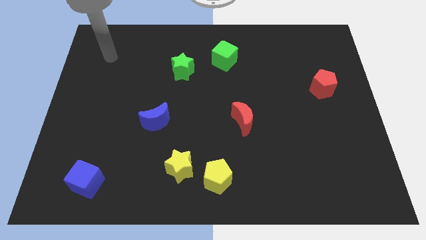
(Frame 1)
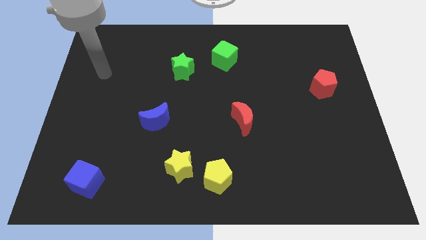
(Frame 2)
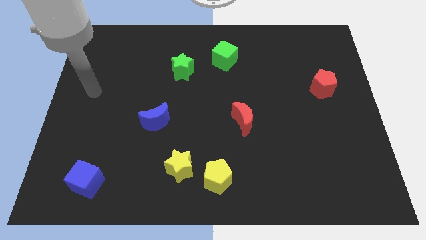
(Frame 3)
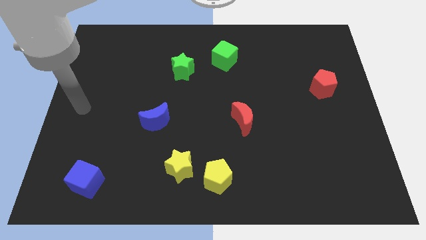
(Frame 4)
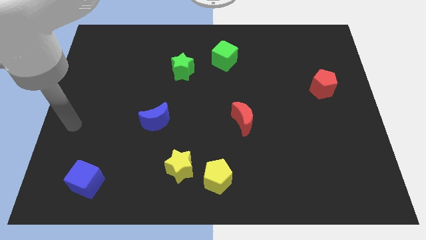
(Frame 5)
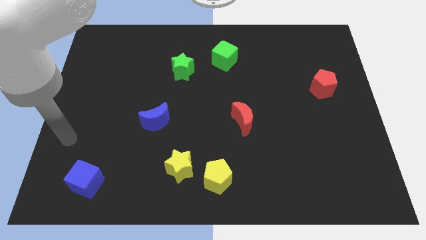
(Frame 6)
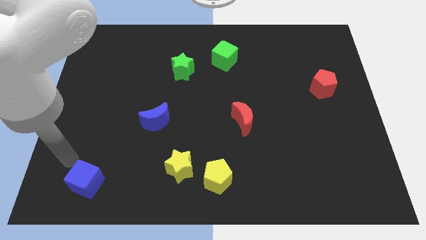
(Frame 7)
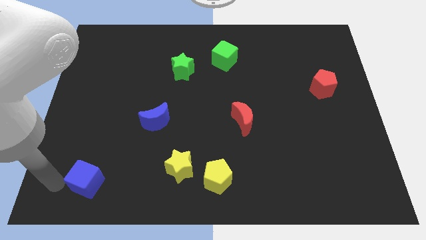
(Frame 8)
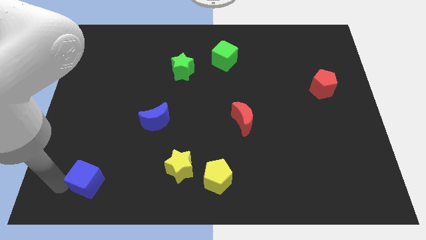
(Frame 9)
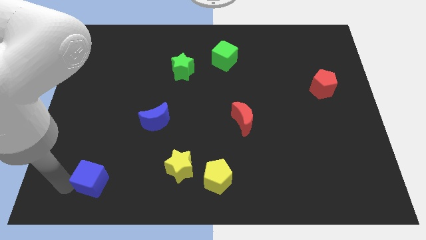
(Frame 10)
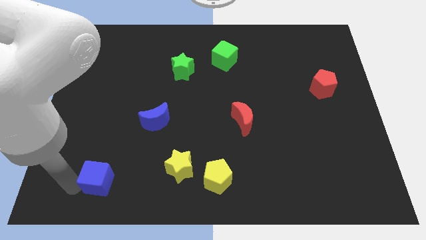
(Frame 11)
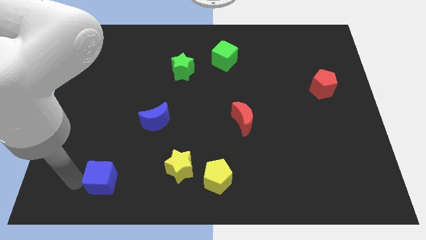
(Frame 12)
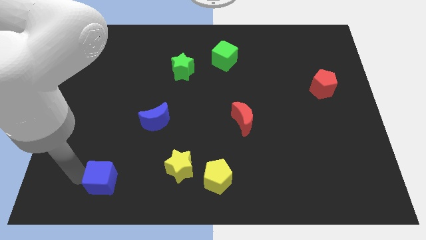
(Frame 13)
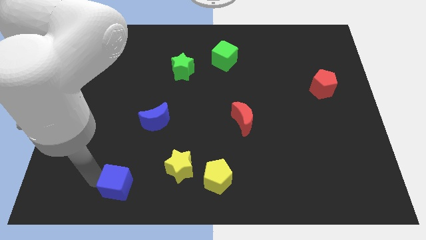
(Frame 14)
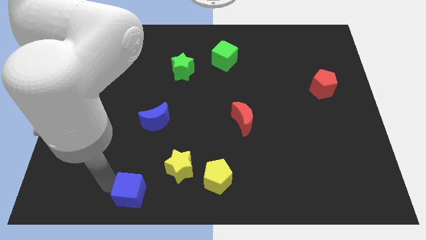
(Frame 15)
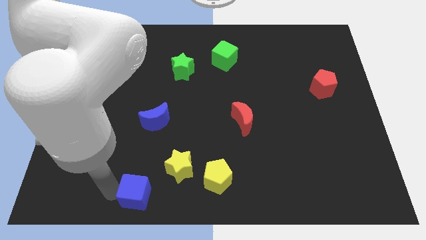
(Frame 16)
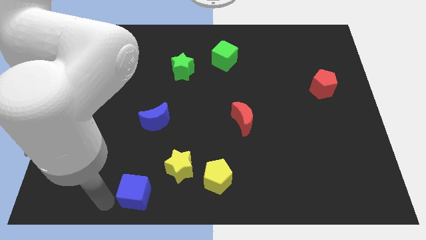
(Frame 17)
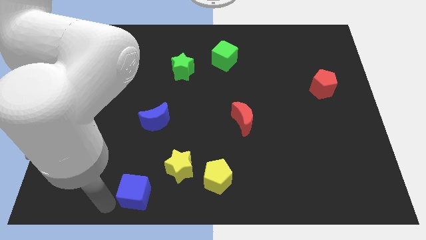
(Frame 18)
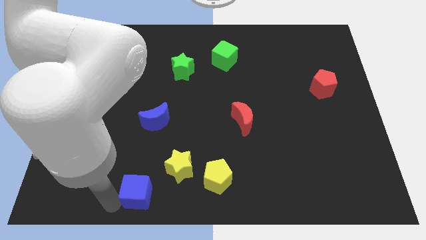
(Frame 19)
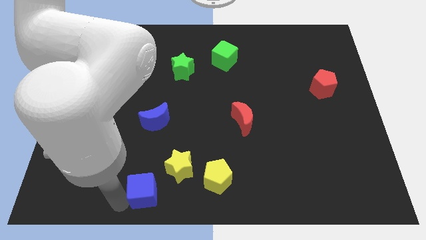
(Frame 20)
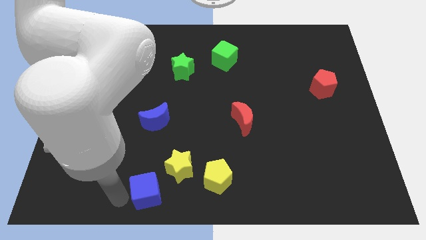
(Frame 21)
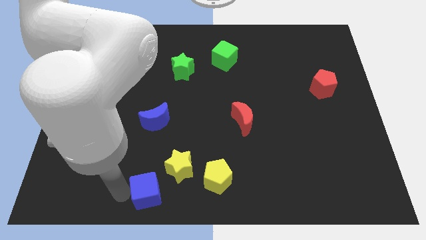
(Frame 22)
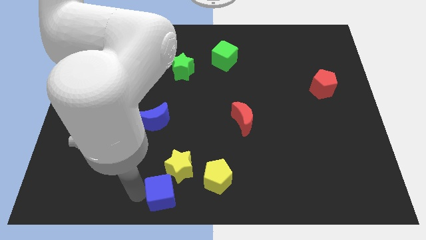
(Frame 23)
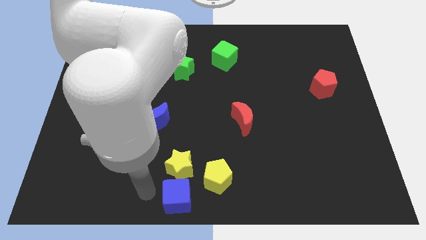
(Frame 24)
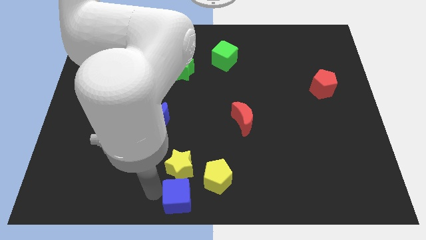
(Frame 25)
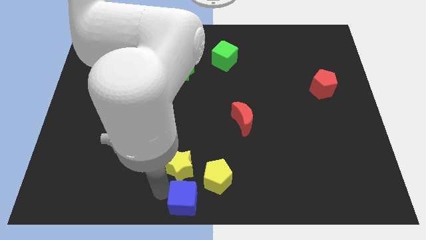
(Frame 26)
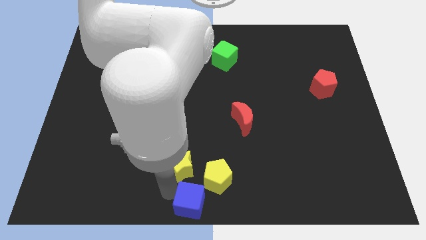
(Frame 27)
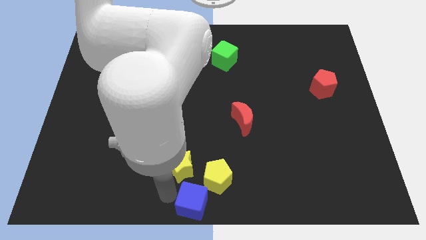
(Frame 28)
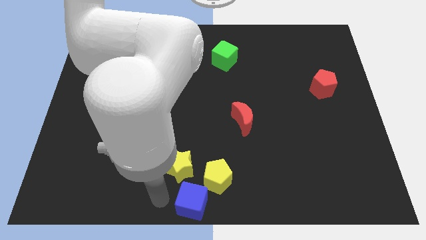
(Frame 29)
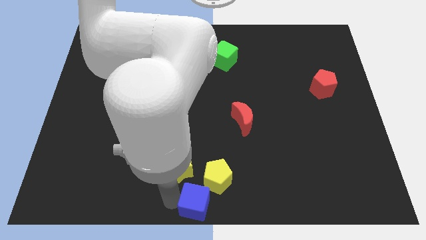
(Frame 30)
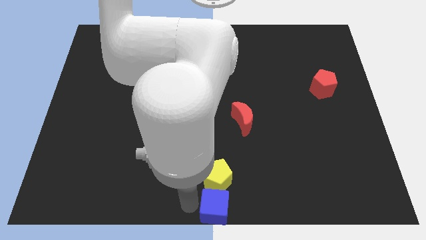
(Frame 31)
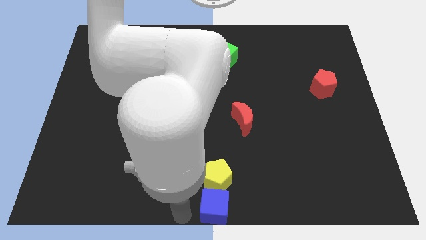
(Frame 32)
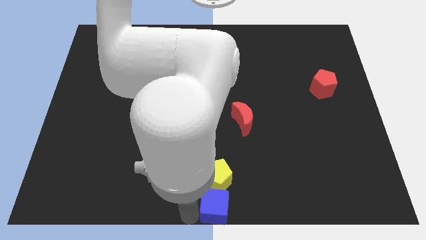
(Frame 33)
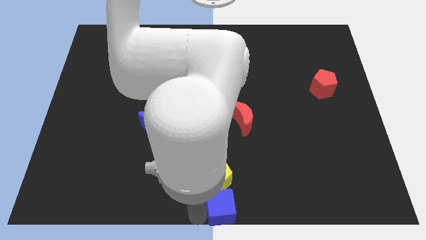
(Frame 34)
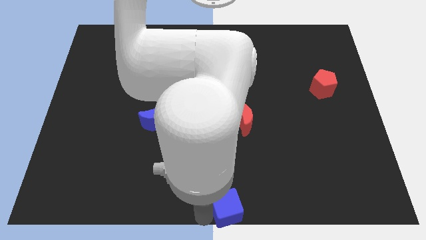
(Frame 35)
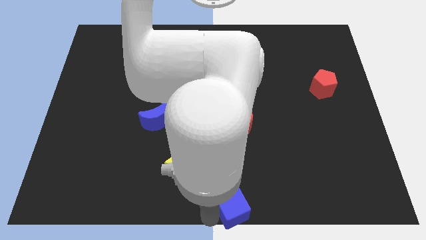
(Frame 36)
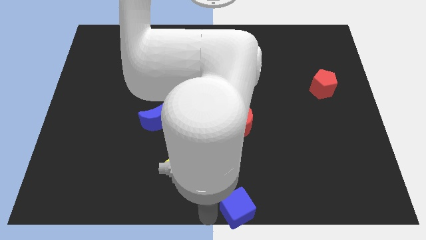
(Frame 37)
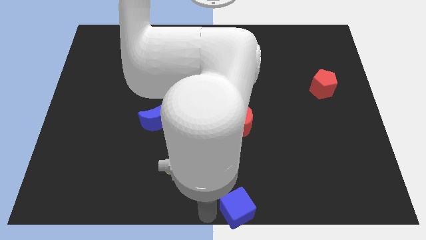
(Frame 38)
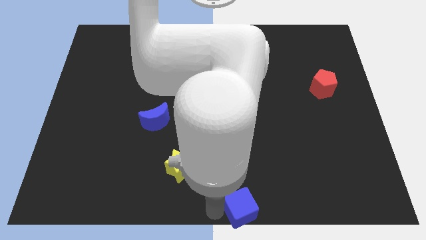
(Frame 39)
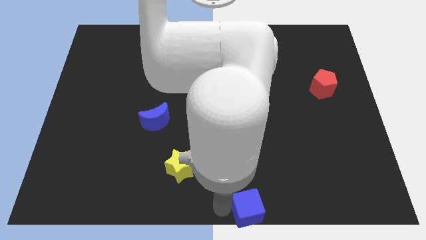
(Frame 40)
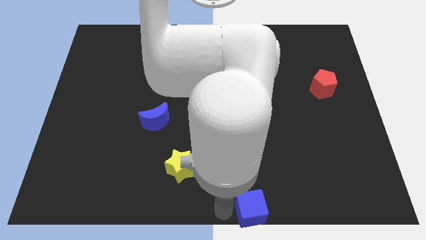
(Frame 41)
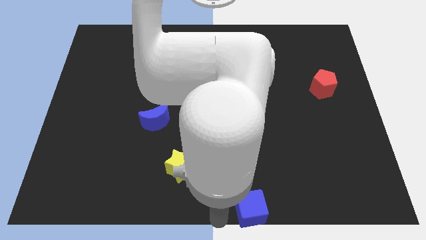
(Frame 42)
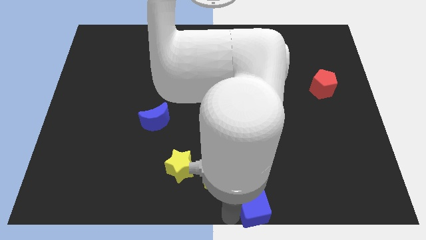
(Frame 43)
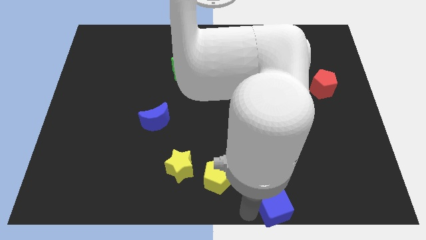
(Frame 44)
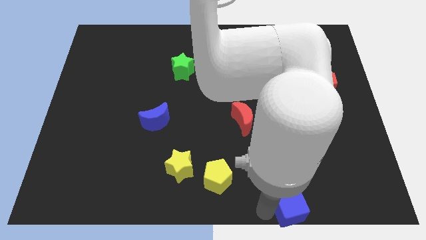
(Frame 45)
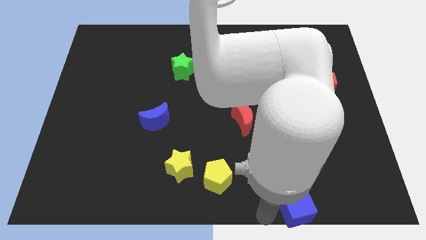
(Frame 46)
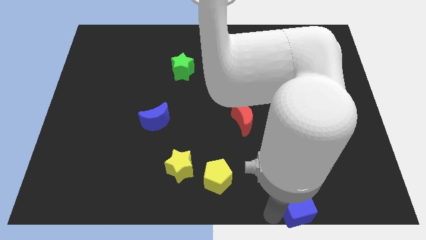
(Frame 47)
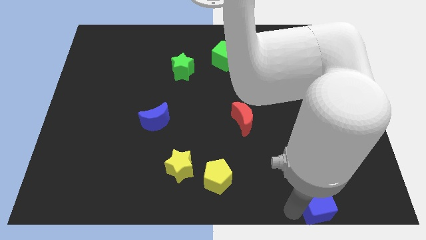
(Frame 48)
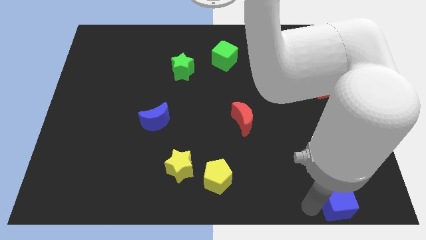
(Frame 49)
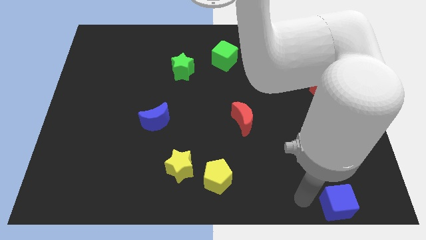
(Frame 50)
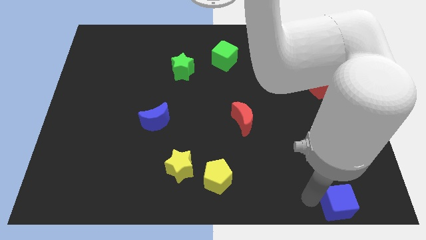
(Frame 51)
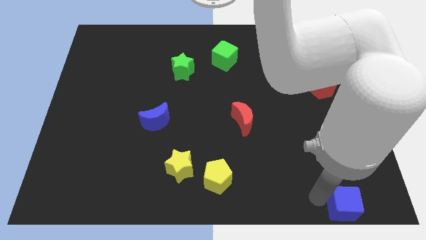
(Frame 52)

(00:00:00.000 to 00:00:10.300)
push the blue cube to the bottom right corner
